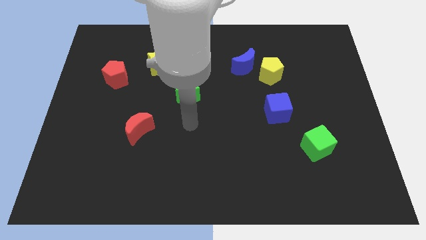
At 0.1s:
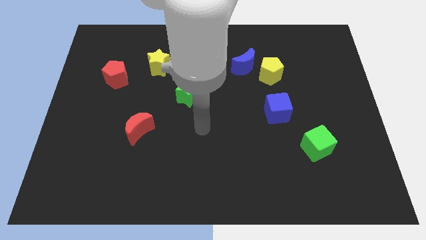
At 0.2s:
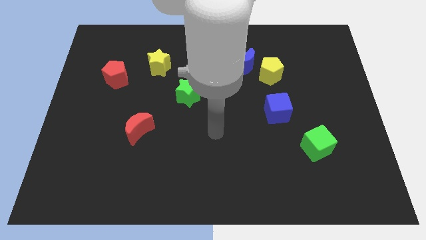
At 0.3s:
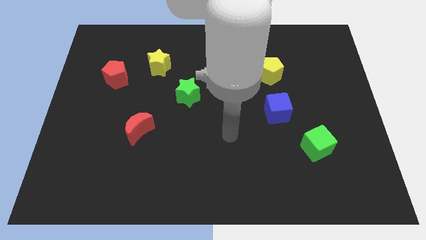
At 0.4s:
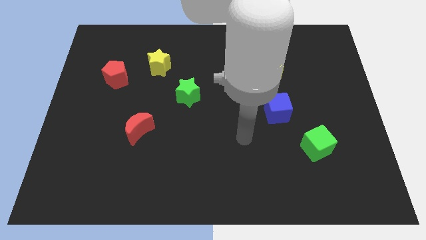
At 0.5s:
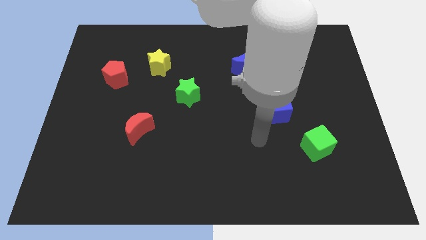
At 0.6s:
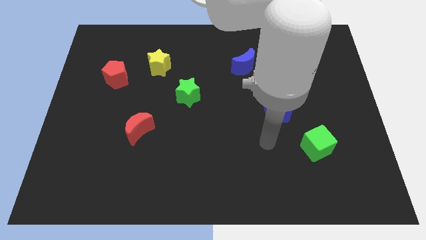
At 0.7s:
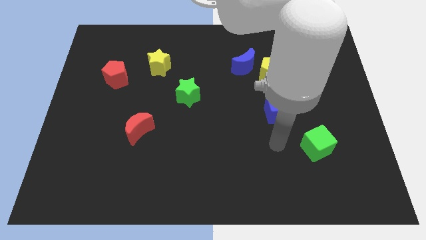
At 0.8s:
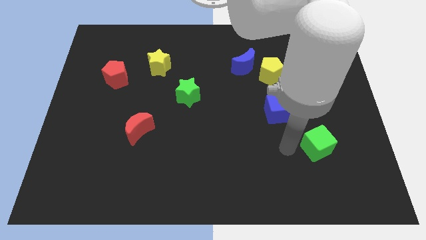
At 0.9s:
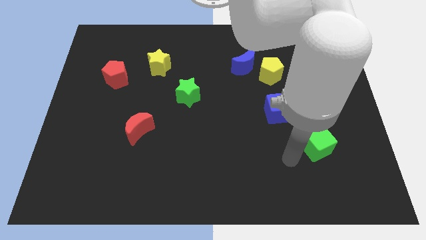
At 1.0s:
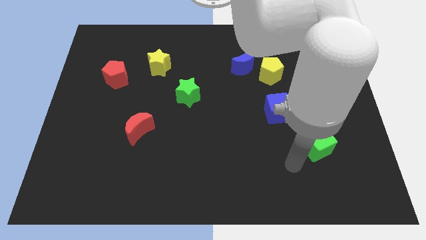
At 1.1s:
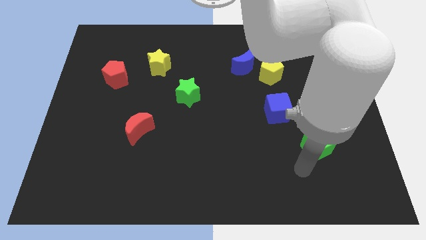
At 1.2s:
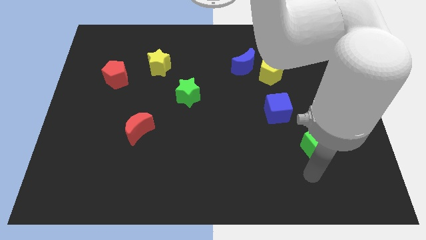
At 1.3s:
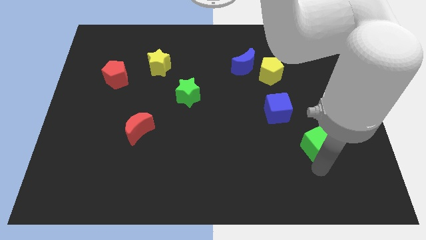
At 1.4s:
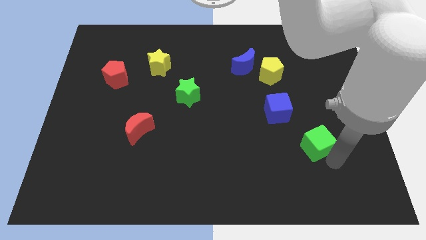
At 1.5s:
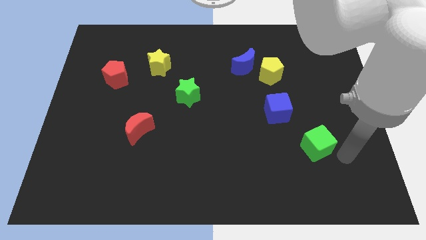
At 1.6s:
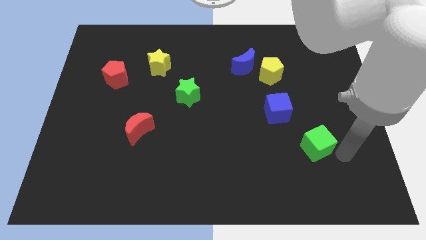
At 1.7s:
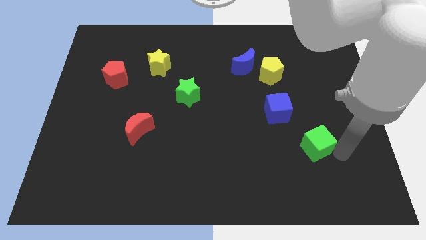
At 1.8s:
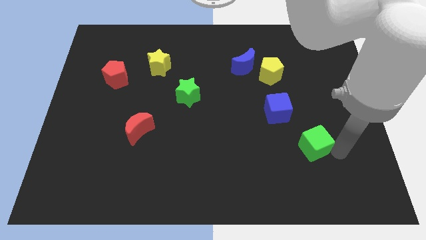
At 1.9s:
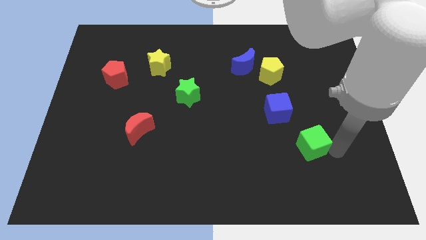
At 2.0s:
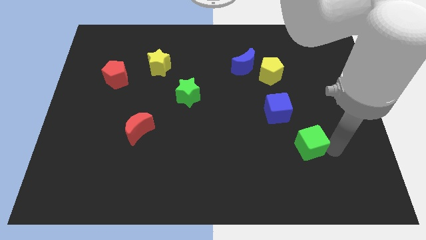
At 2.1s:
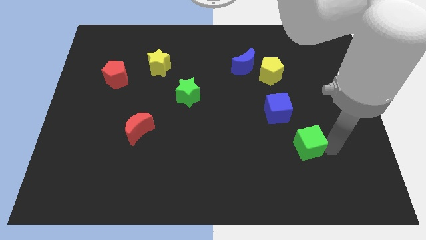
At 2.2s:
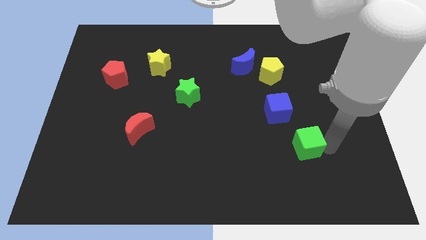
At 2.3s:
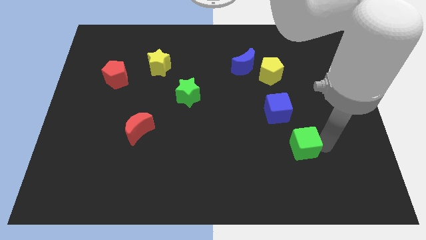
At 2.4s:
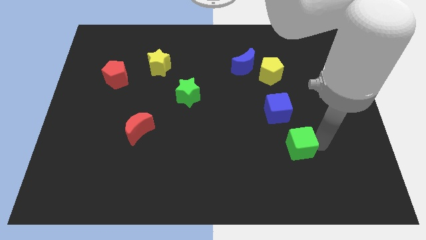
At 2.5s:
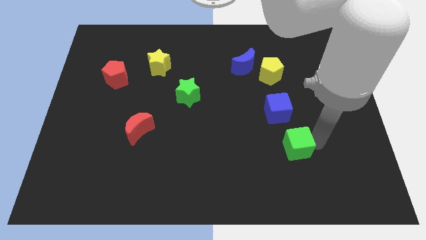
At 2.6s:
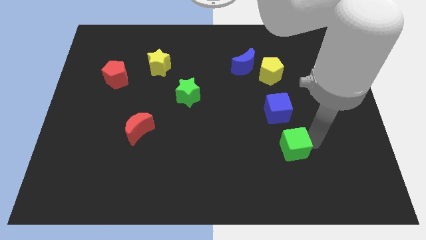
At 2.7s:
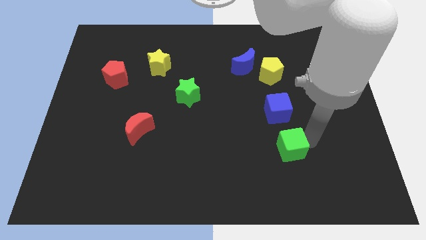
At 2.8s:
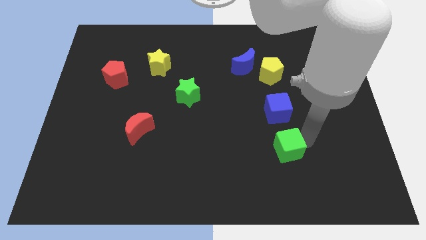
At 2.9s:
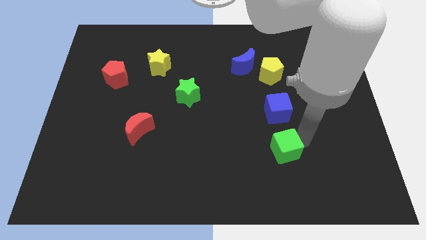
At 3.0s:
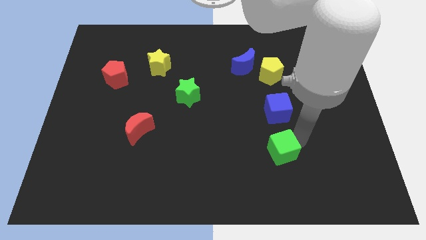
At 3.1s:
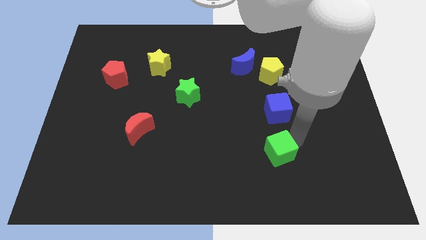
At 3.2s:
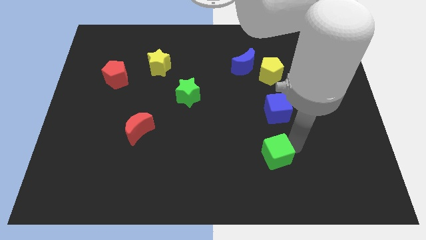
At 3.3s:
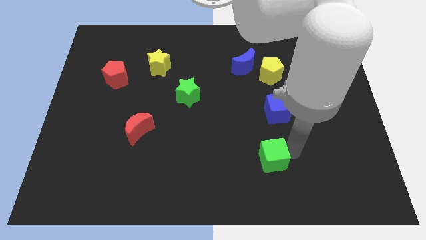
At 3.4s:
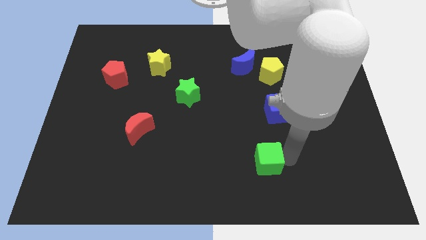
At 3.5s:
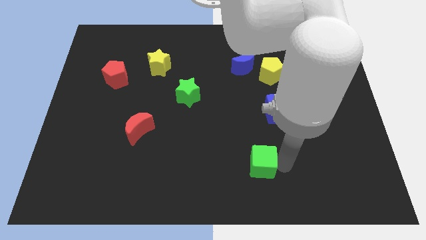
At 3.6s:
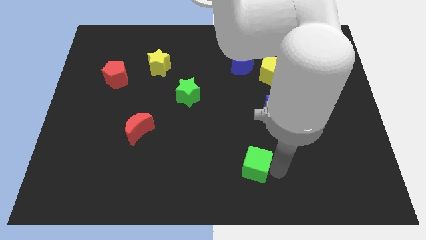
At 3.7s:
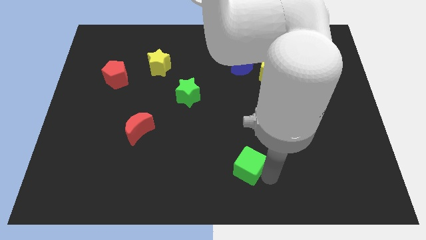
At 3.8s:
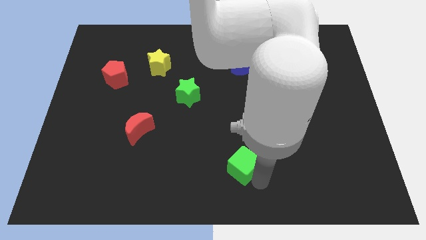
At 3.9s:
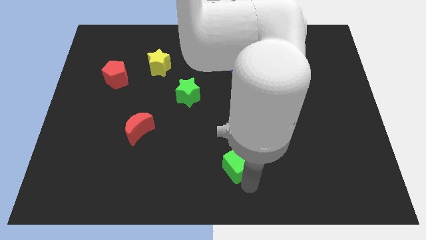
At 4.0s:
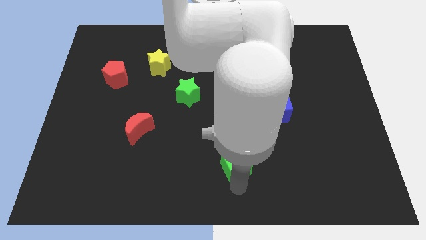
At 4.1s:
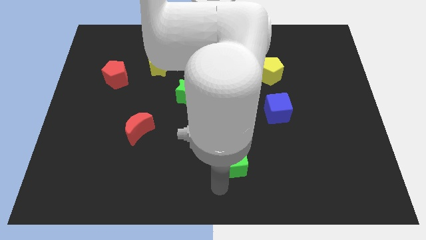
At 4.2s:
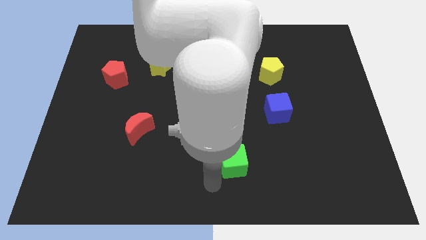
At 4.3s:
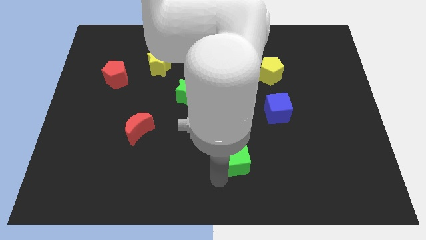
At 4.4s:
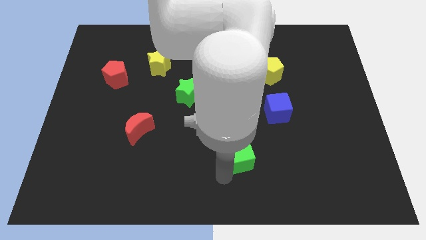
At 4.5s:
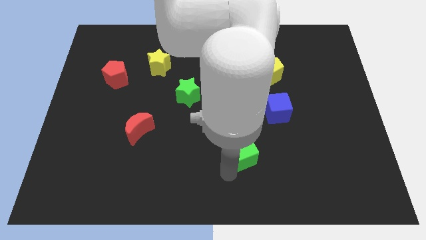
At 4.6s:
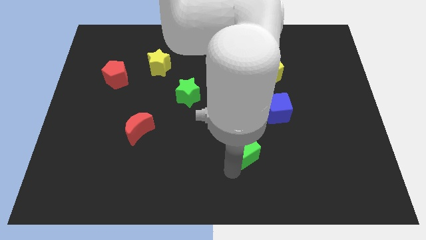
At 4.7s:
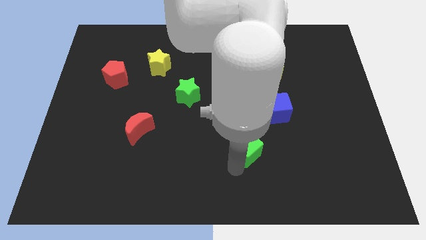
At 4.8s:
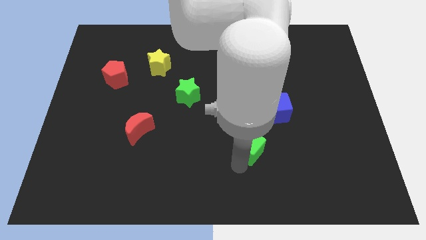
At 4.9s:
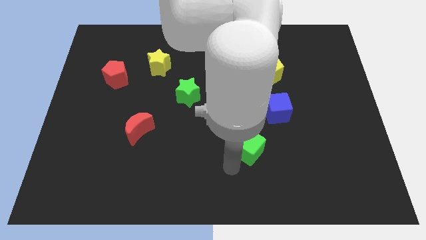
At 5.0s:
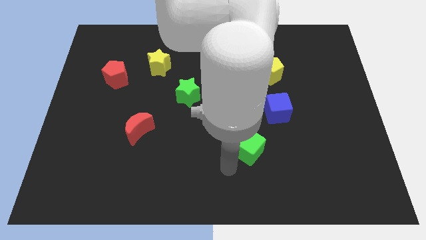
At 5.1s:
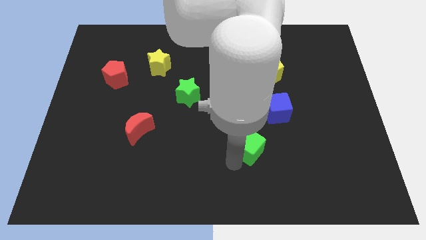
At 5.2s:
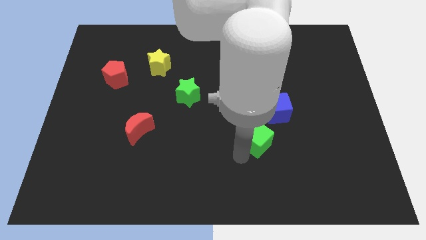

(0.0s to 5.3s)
move the green cube upwards and to the left a bit

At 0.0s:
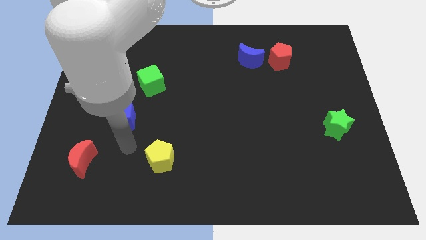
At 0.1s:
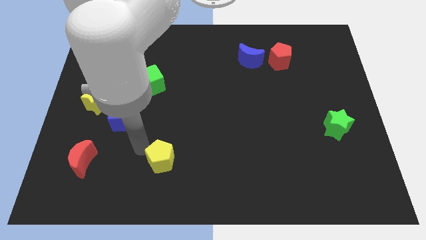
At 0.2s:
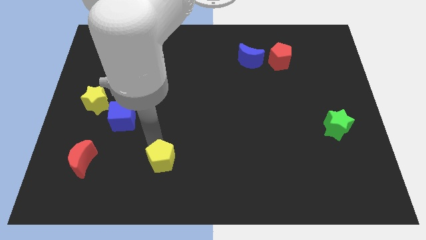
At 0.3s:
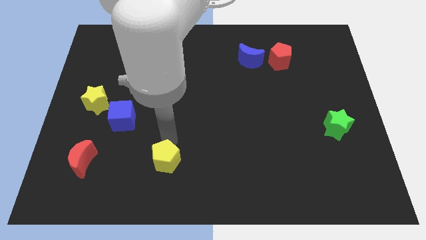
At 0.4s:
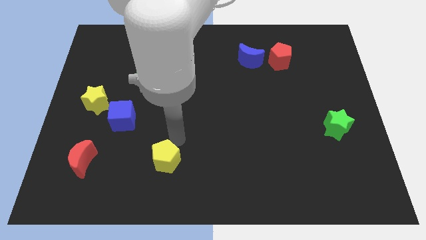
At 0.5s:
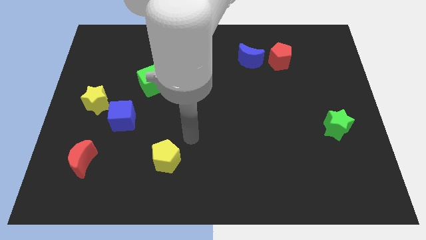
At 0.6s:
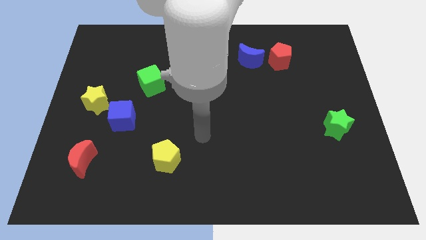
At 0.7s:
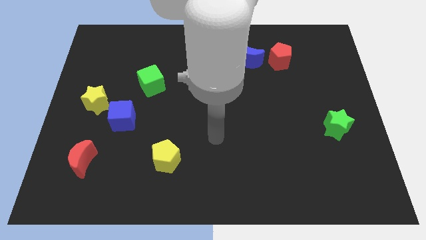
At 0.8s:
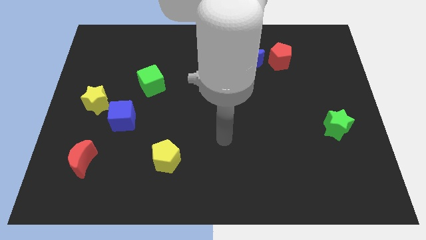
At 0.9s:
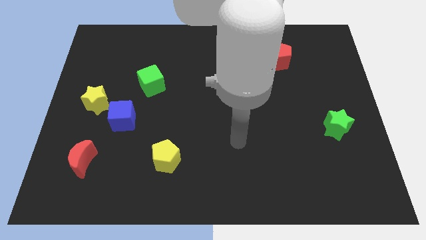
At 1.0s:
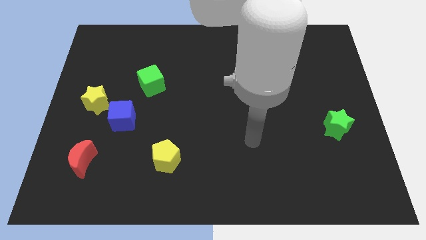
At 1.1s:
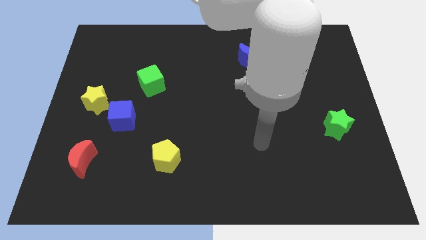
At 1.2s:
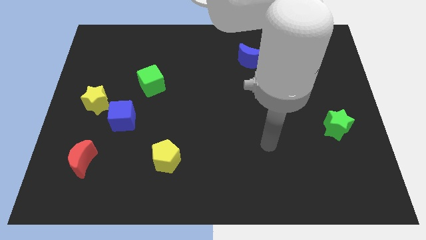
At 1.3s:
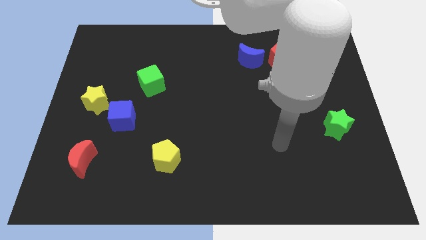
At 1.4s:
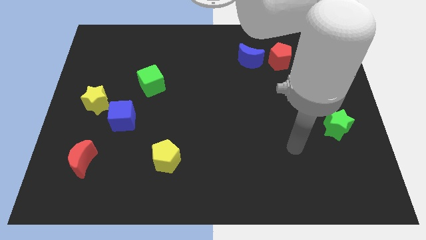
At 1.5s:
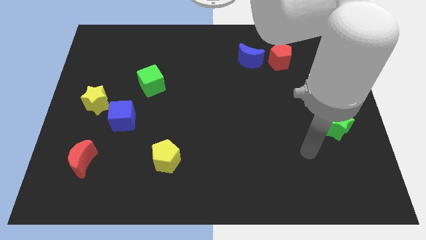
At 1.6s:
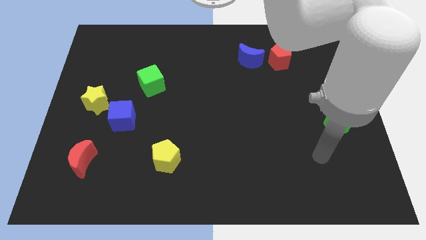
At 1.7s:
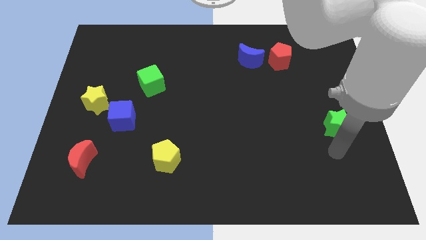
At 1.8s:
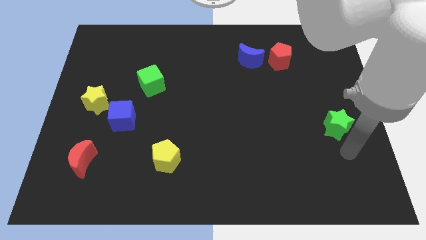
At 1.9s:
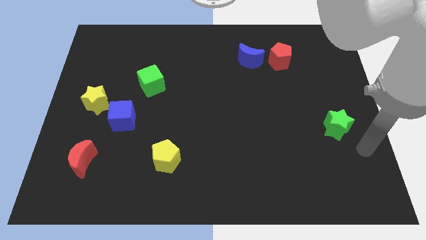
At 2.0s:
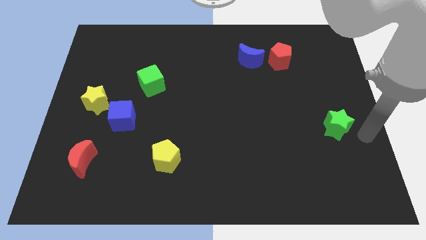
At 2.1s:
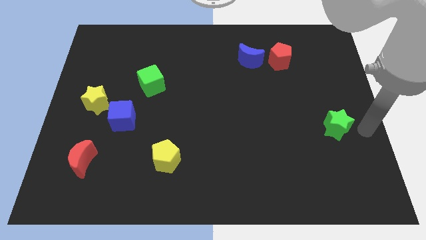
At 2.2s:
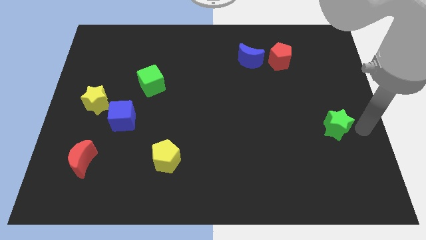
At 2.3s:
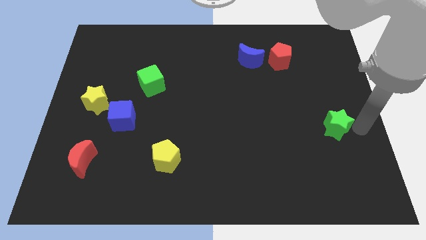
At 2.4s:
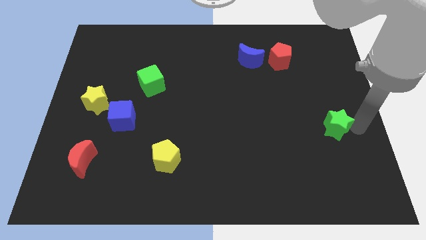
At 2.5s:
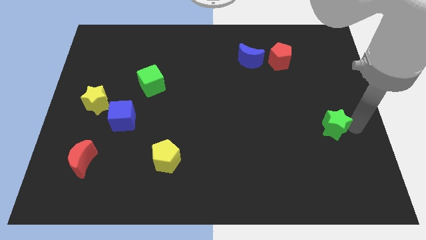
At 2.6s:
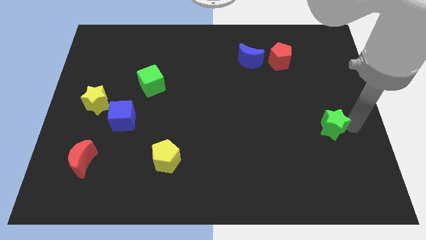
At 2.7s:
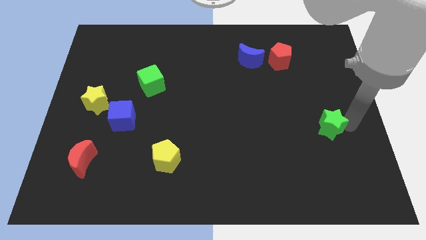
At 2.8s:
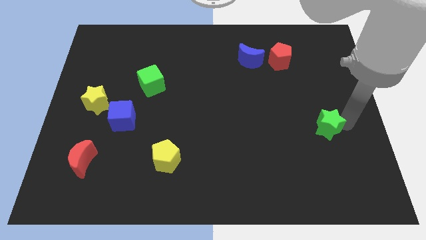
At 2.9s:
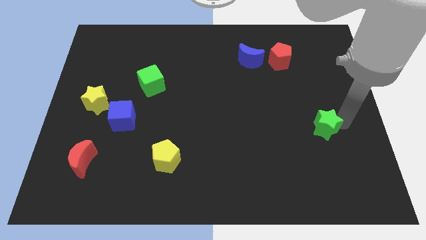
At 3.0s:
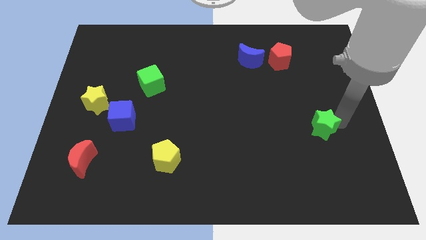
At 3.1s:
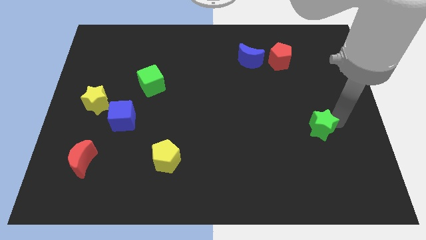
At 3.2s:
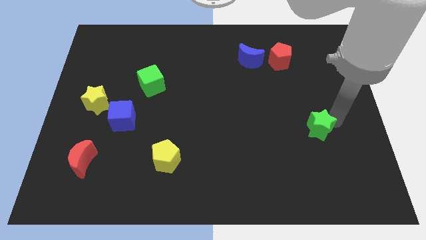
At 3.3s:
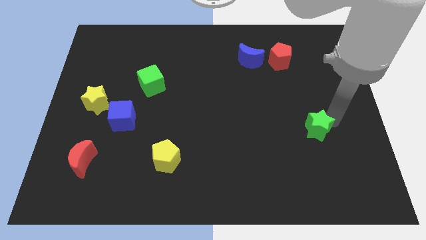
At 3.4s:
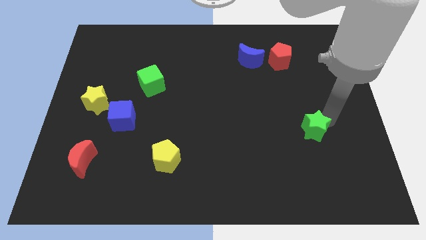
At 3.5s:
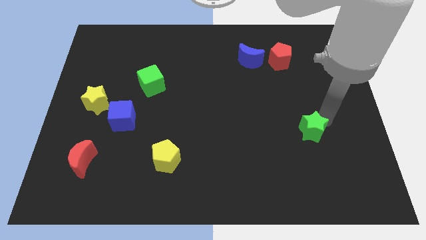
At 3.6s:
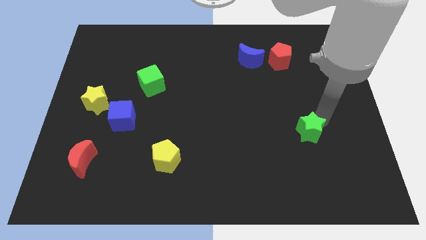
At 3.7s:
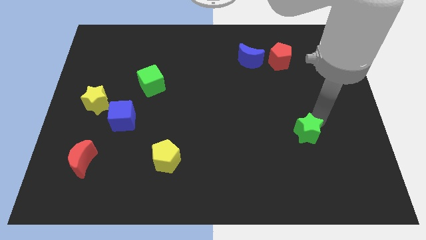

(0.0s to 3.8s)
move the green star to the left a little bit
